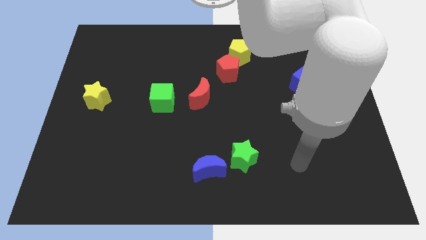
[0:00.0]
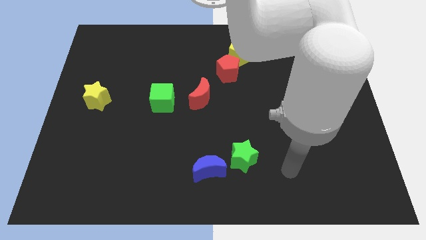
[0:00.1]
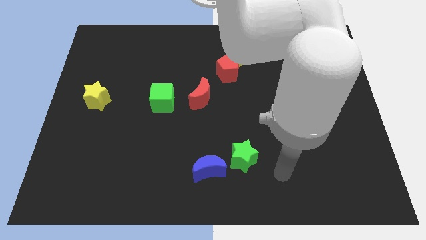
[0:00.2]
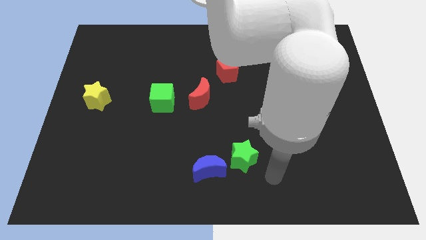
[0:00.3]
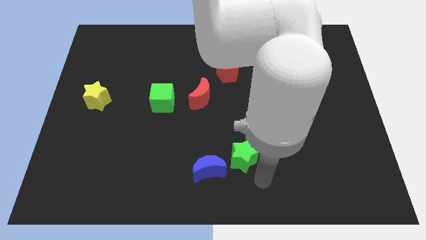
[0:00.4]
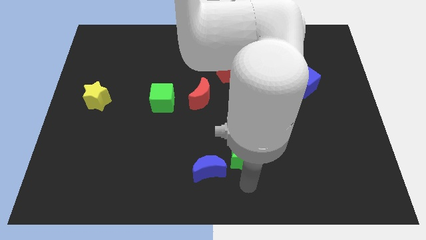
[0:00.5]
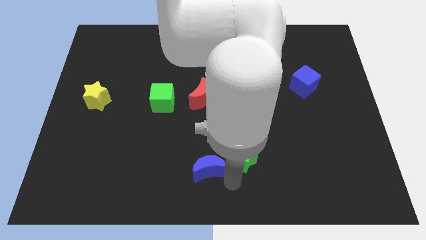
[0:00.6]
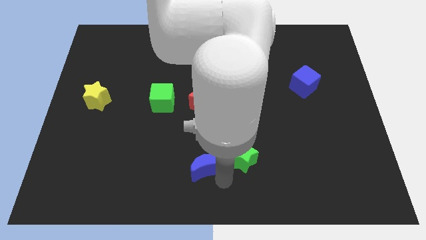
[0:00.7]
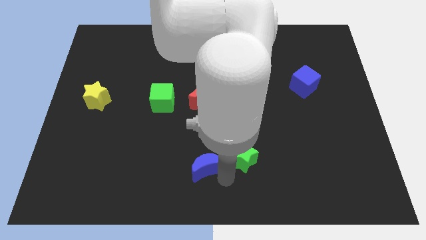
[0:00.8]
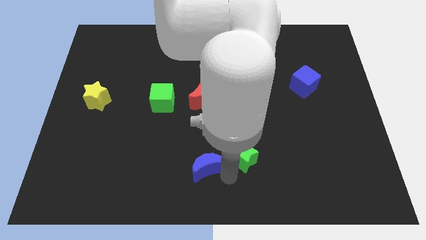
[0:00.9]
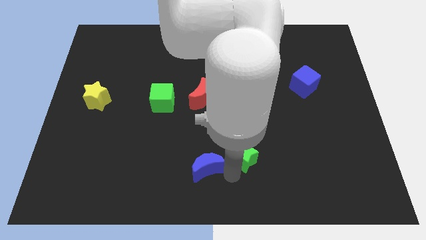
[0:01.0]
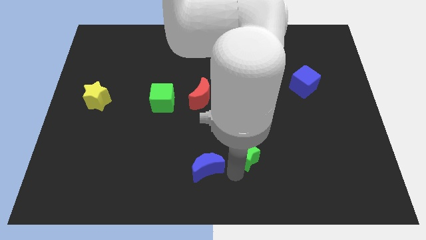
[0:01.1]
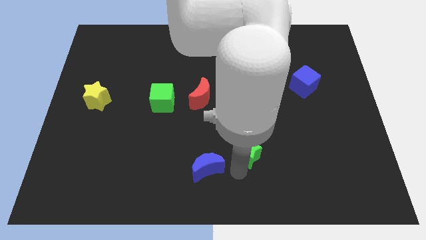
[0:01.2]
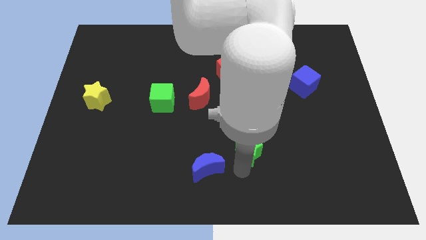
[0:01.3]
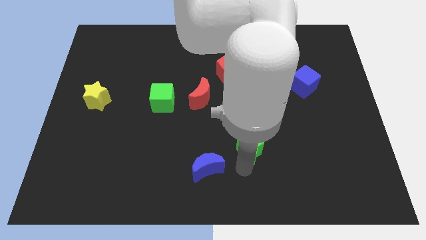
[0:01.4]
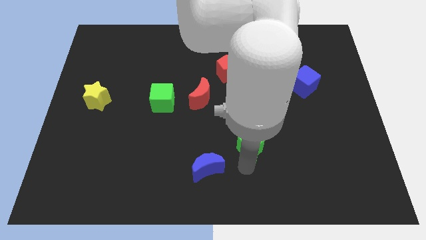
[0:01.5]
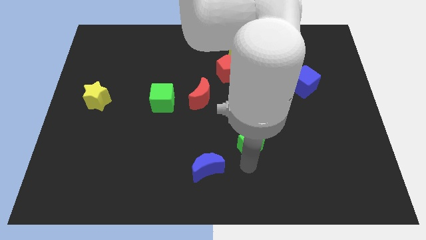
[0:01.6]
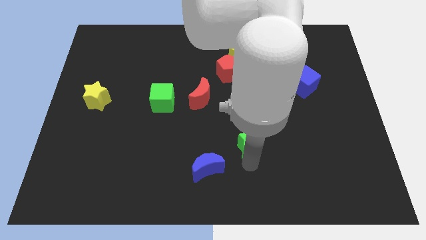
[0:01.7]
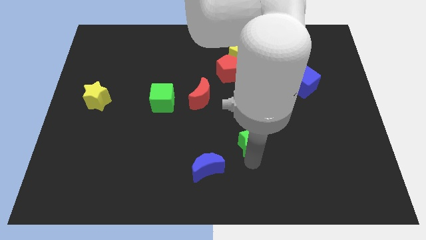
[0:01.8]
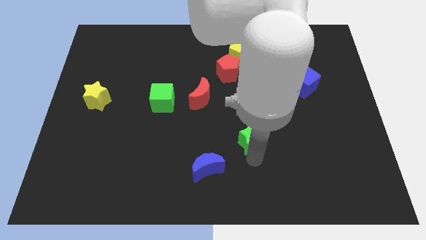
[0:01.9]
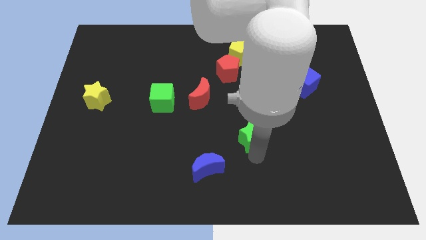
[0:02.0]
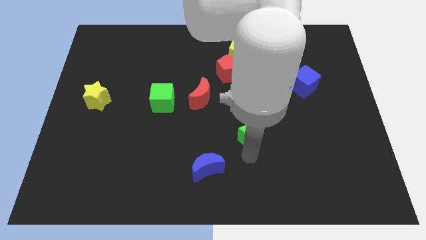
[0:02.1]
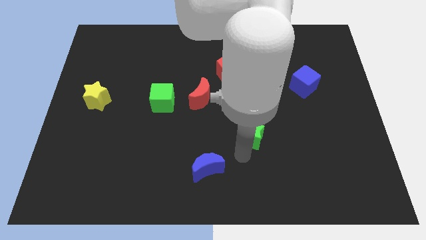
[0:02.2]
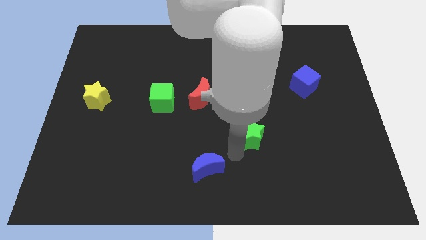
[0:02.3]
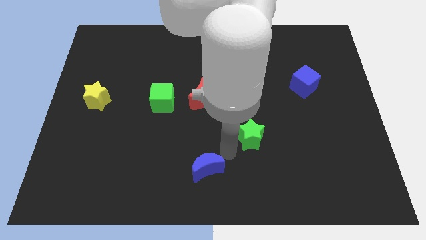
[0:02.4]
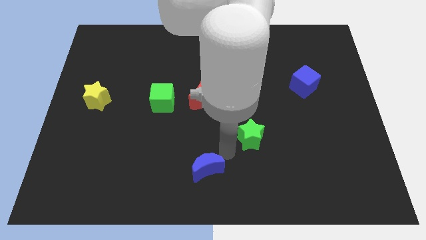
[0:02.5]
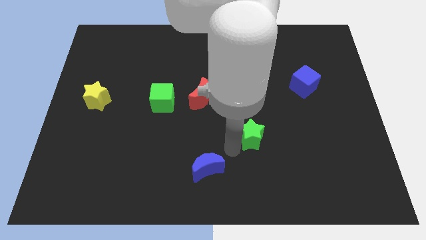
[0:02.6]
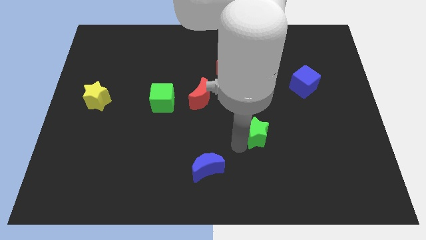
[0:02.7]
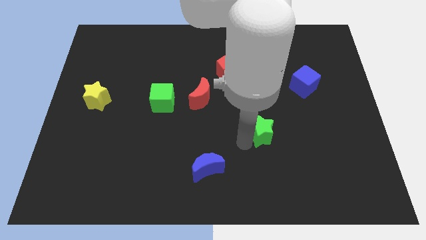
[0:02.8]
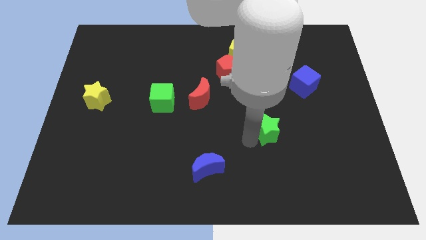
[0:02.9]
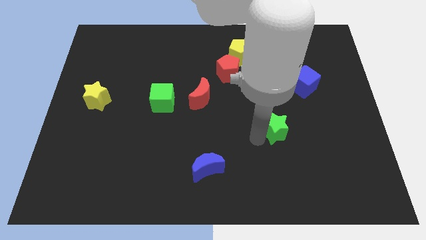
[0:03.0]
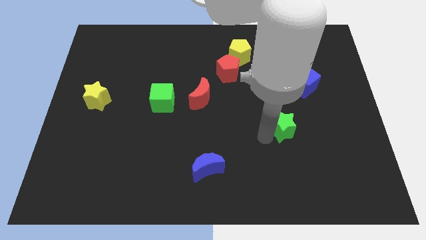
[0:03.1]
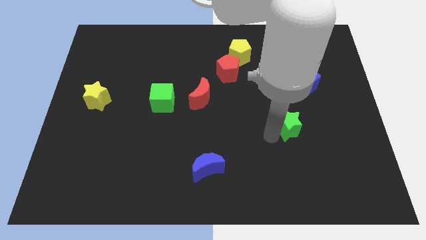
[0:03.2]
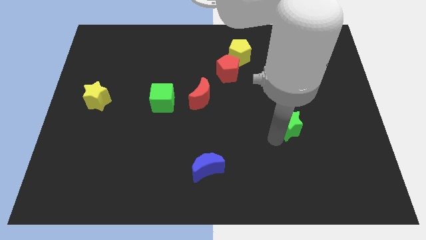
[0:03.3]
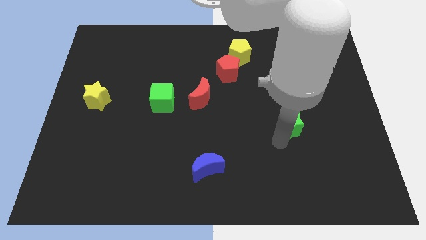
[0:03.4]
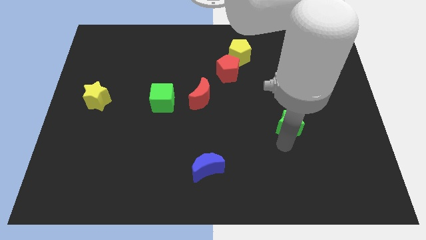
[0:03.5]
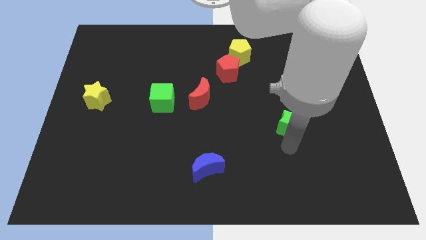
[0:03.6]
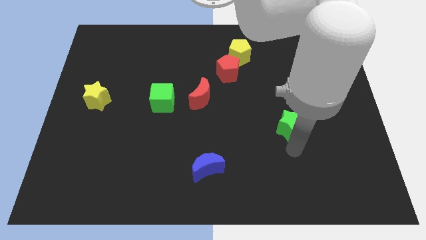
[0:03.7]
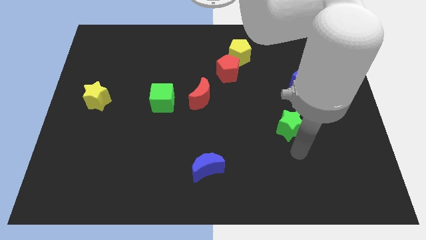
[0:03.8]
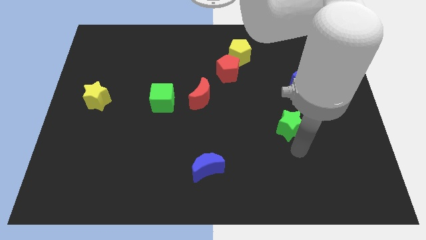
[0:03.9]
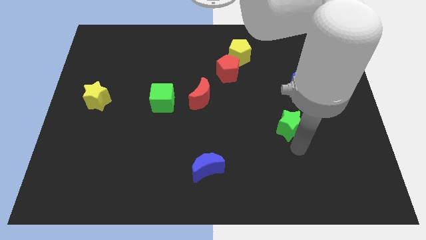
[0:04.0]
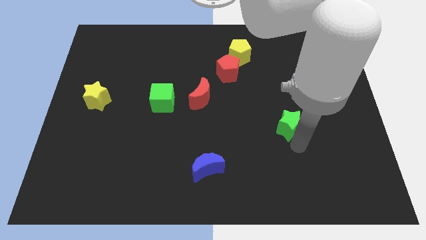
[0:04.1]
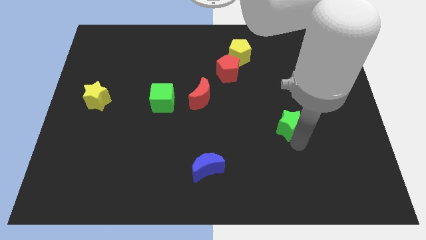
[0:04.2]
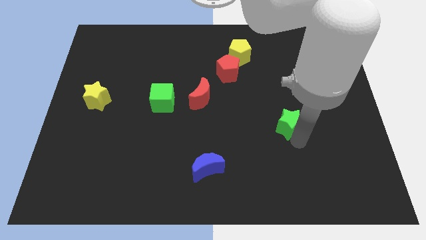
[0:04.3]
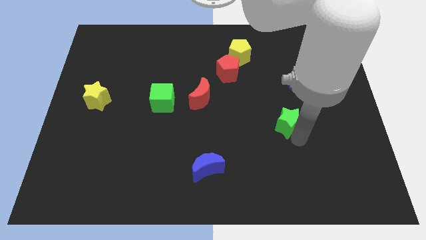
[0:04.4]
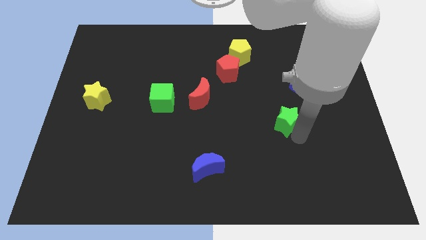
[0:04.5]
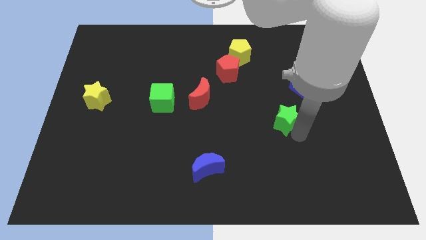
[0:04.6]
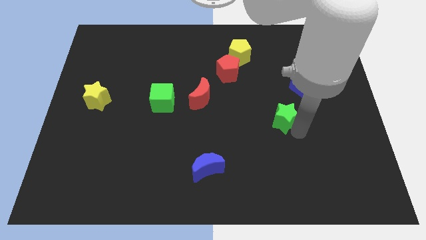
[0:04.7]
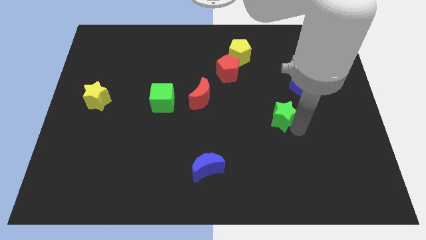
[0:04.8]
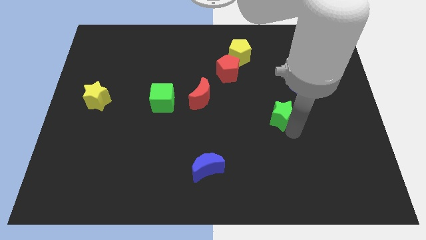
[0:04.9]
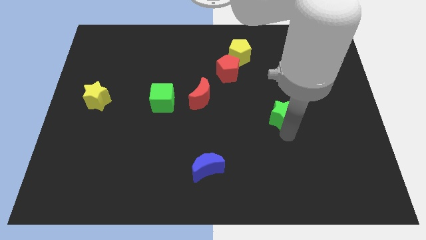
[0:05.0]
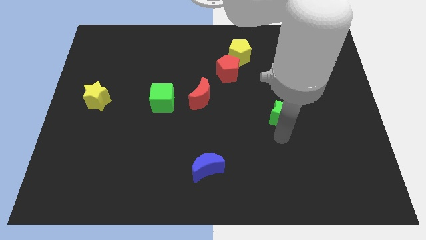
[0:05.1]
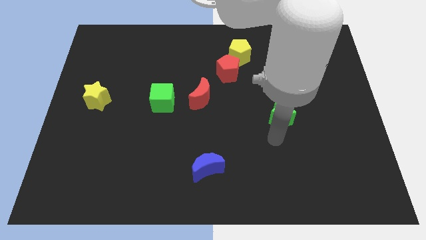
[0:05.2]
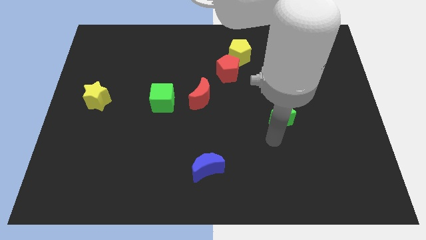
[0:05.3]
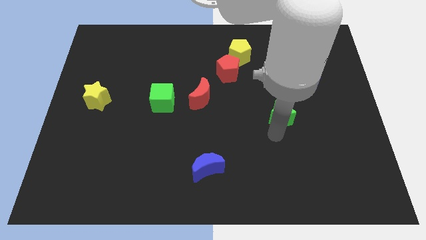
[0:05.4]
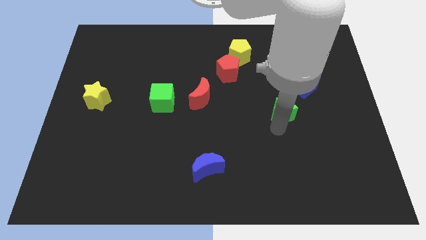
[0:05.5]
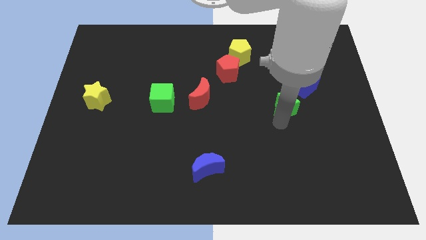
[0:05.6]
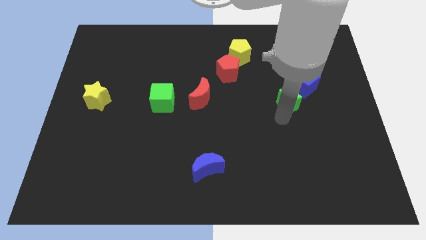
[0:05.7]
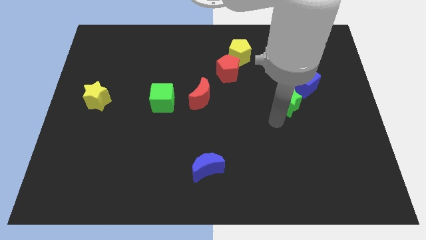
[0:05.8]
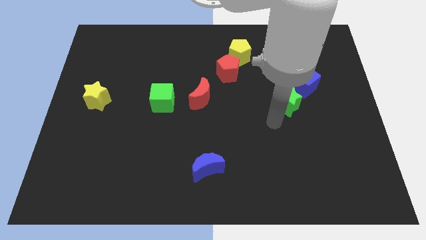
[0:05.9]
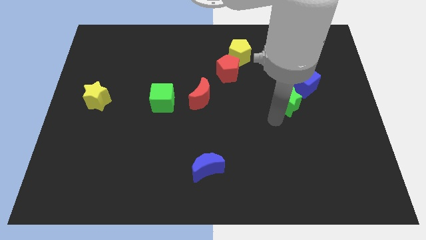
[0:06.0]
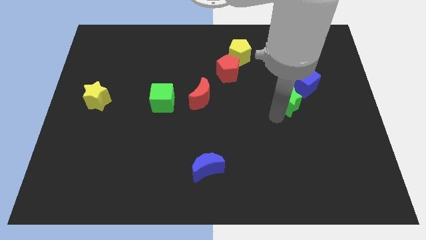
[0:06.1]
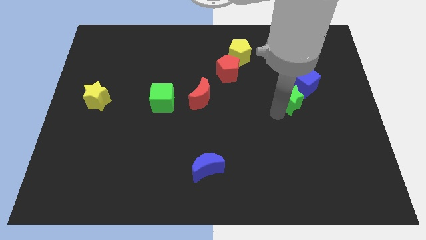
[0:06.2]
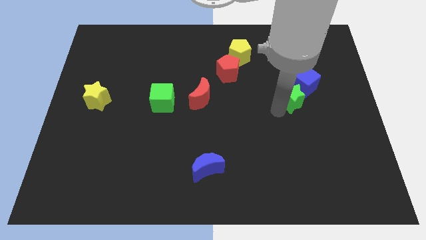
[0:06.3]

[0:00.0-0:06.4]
move the green star next to the blue cube

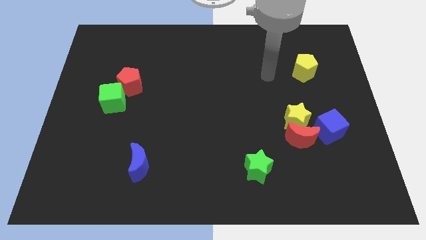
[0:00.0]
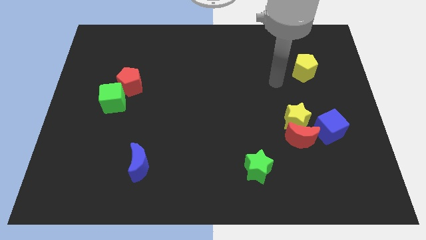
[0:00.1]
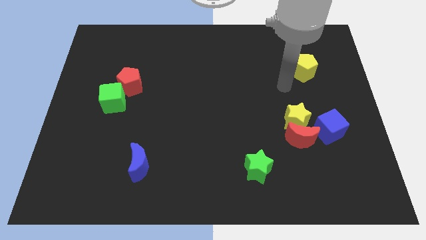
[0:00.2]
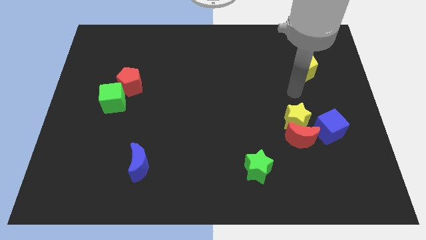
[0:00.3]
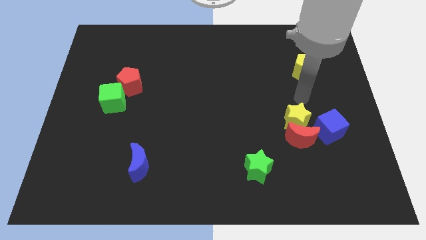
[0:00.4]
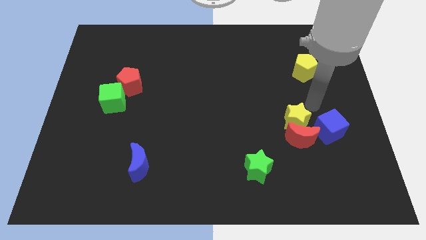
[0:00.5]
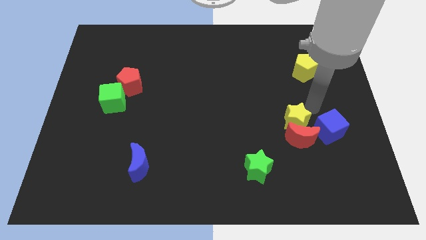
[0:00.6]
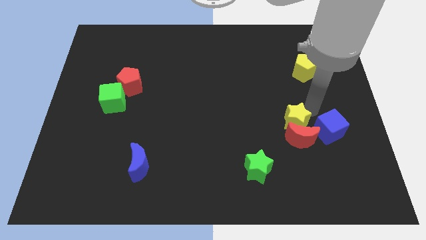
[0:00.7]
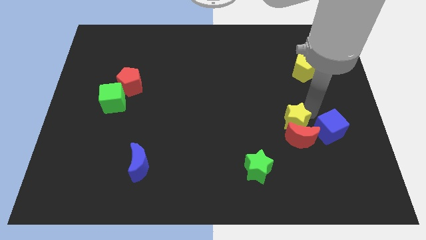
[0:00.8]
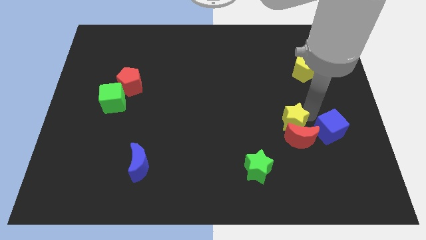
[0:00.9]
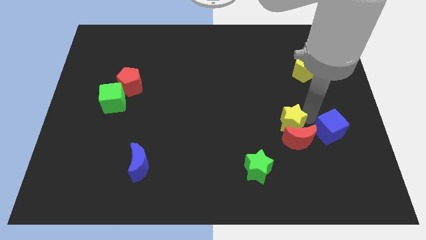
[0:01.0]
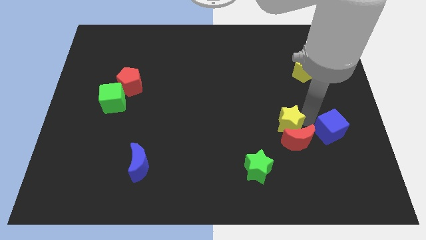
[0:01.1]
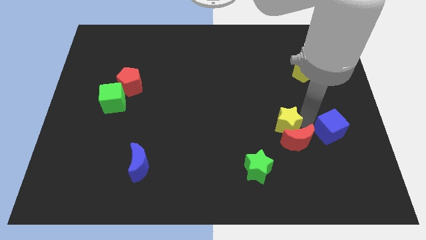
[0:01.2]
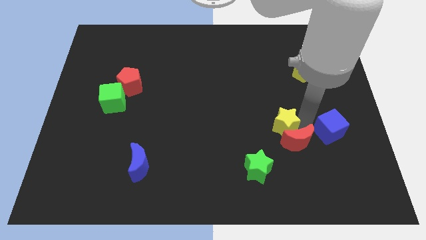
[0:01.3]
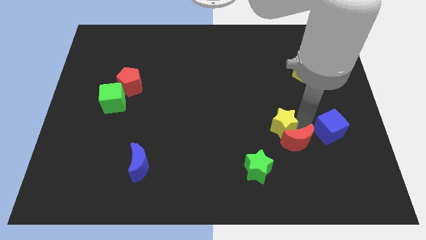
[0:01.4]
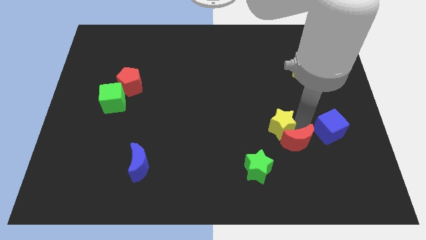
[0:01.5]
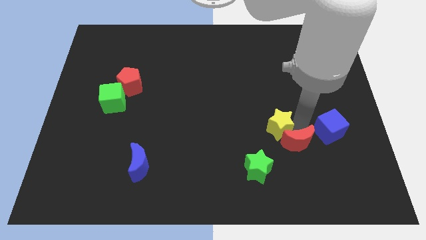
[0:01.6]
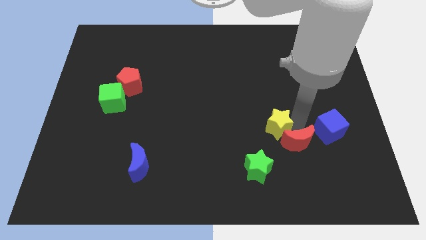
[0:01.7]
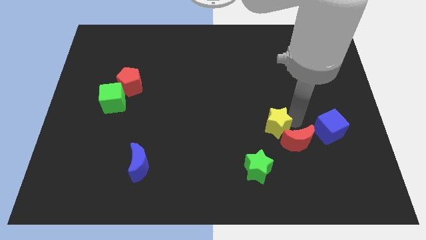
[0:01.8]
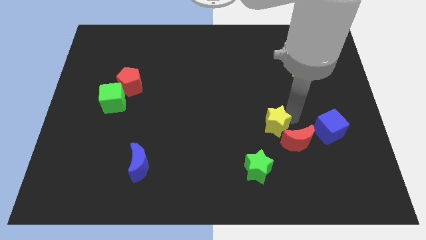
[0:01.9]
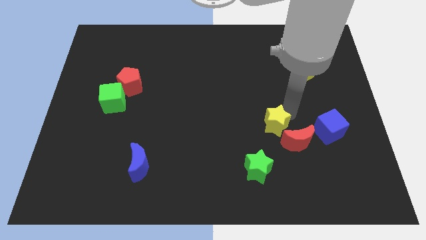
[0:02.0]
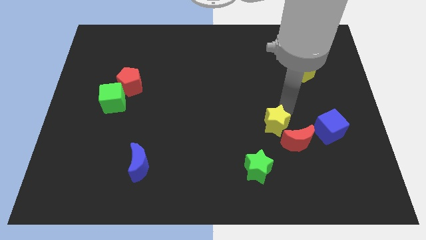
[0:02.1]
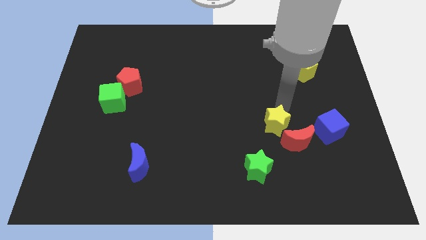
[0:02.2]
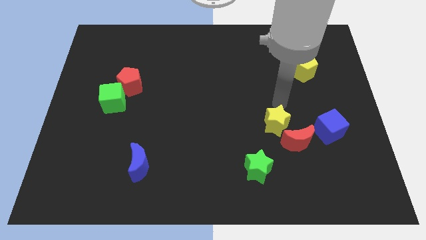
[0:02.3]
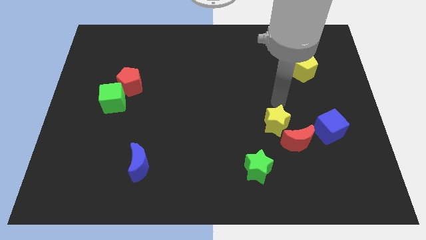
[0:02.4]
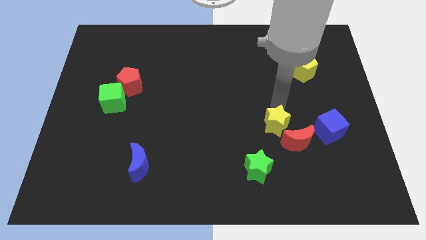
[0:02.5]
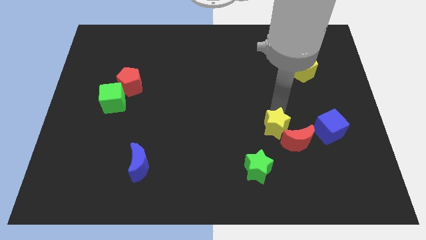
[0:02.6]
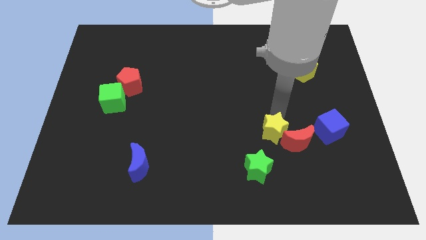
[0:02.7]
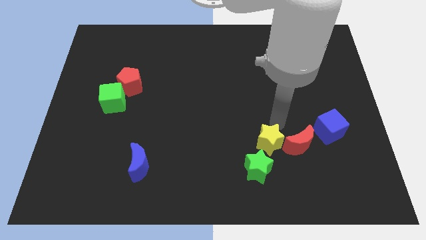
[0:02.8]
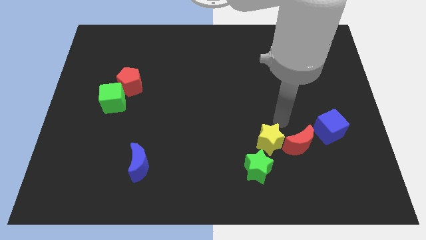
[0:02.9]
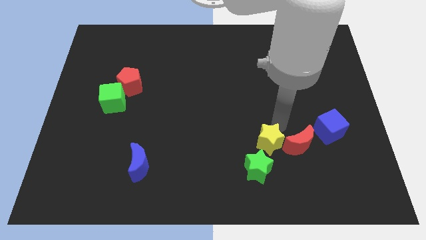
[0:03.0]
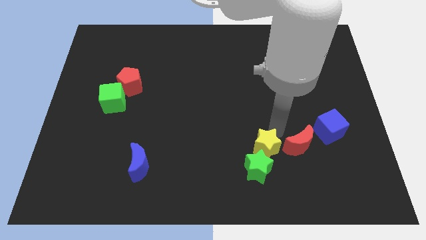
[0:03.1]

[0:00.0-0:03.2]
move the yellow star to the green star
